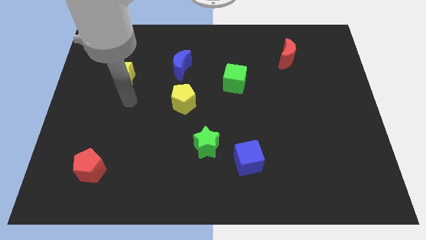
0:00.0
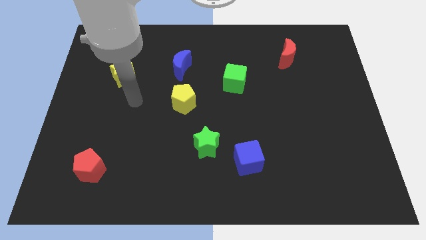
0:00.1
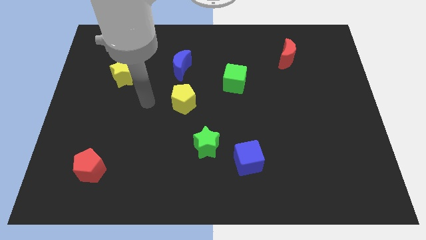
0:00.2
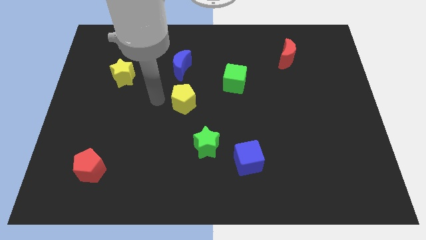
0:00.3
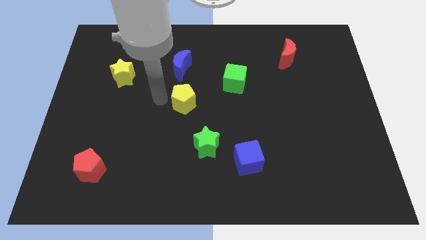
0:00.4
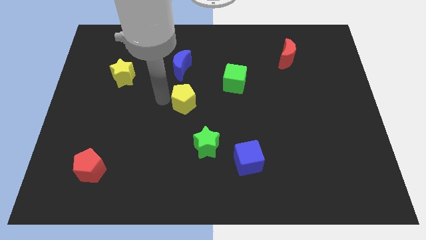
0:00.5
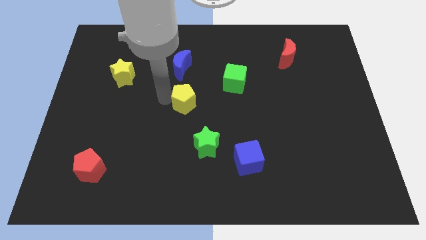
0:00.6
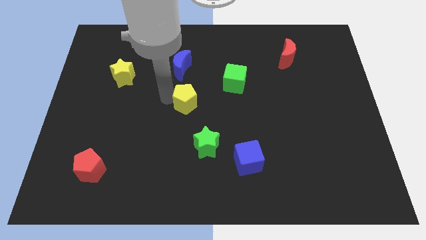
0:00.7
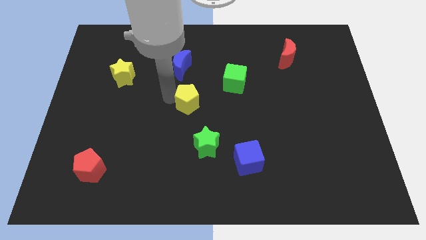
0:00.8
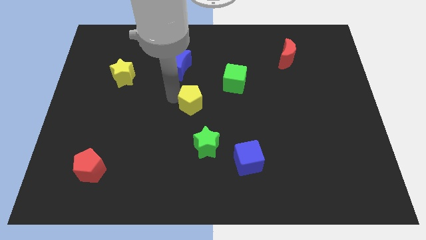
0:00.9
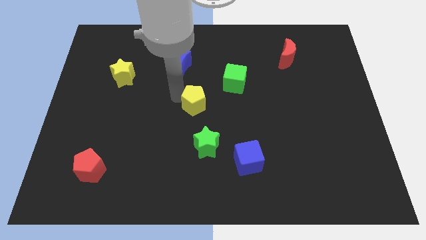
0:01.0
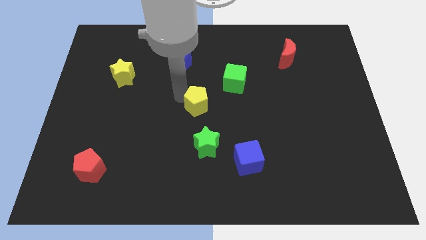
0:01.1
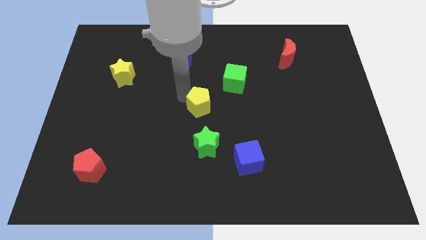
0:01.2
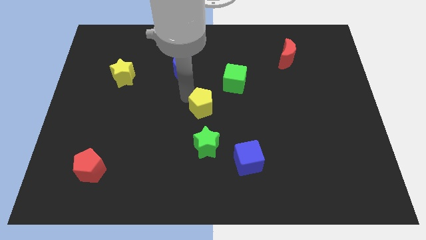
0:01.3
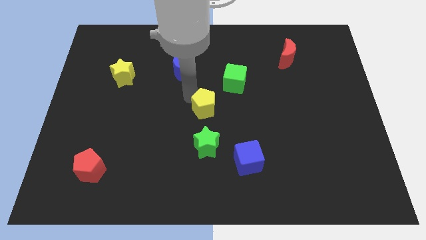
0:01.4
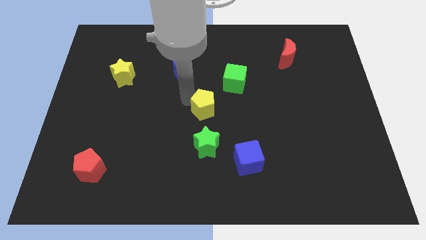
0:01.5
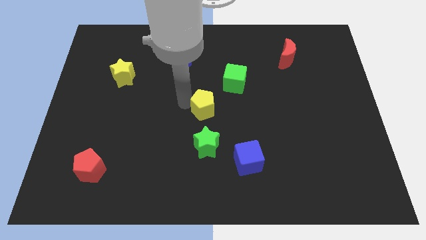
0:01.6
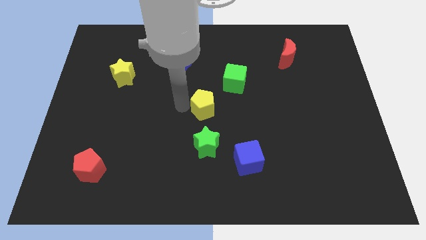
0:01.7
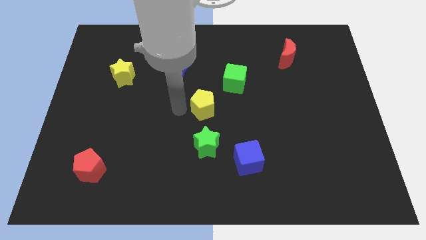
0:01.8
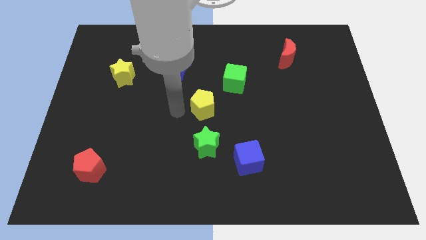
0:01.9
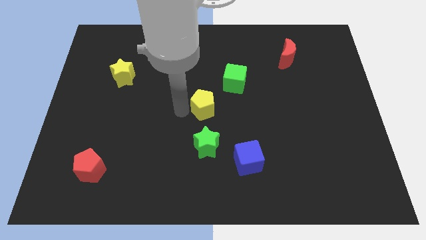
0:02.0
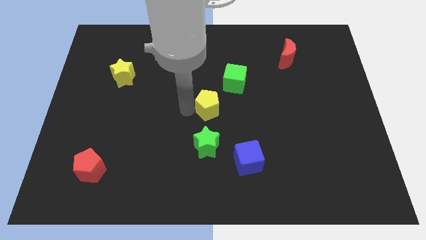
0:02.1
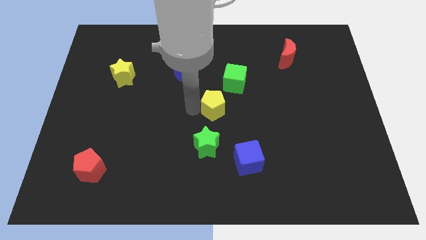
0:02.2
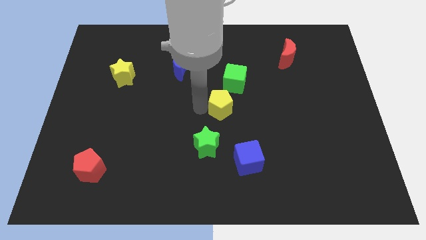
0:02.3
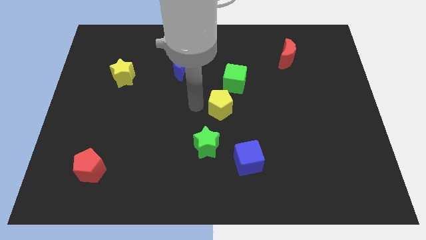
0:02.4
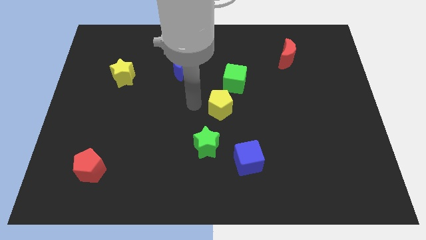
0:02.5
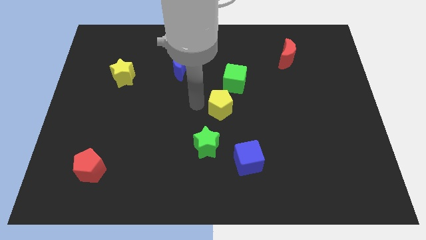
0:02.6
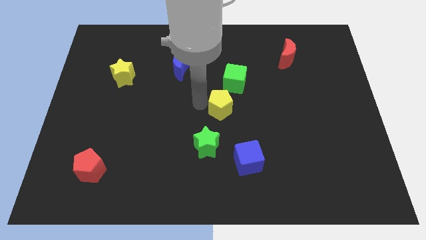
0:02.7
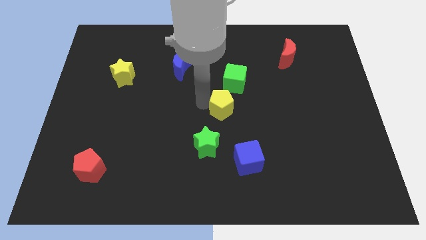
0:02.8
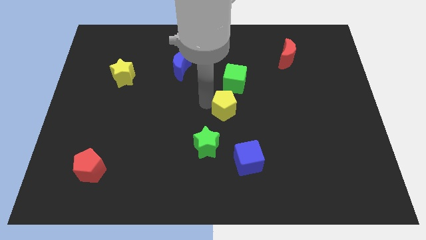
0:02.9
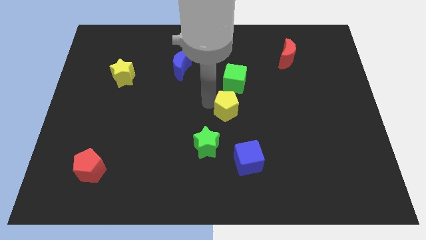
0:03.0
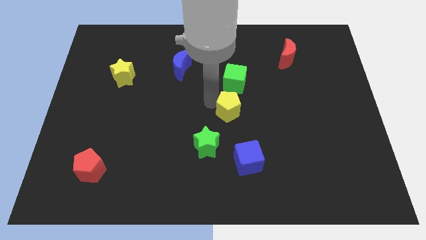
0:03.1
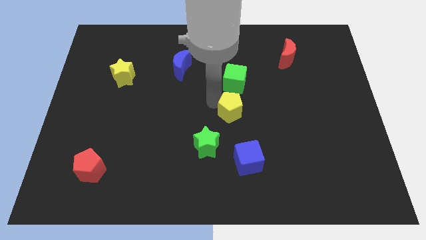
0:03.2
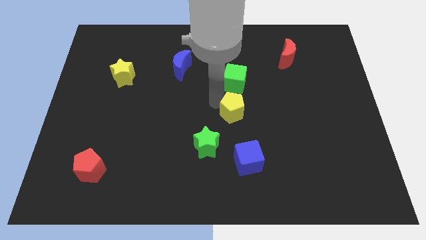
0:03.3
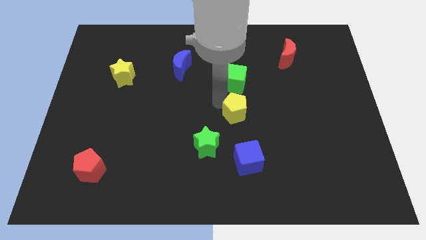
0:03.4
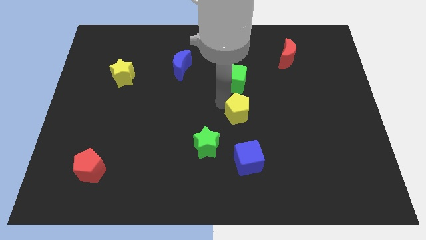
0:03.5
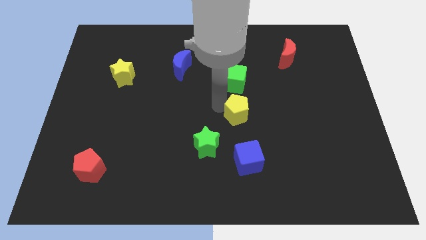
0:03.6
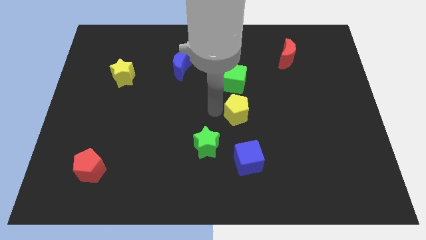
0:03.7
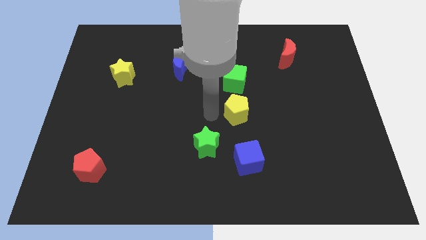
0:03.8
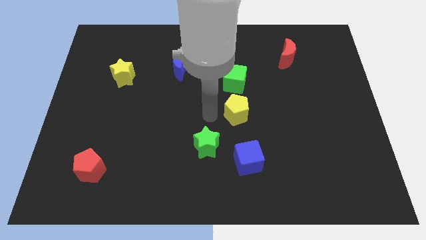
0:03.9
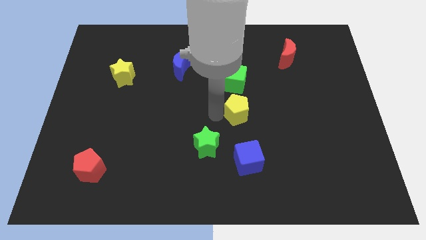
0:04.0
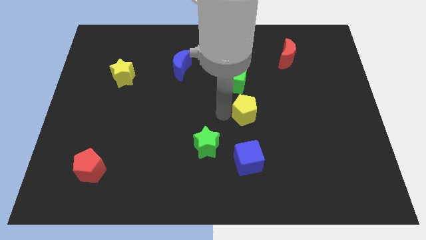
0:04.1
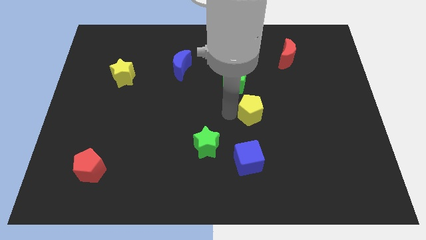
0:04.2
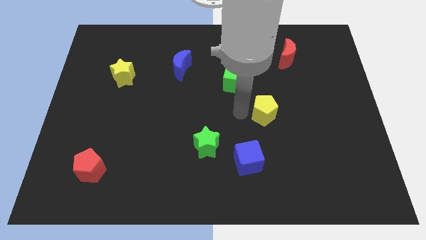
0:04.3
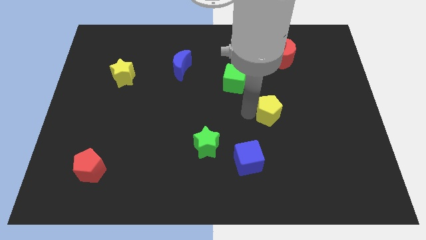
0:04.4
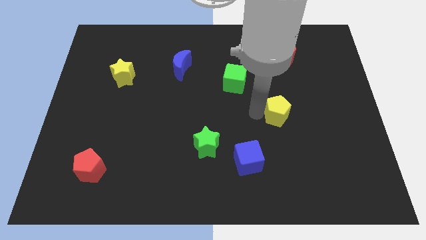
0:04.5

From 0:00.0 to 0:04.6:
push the yellow pentagon right

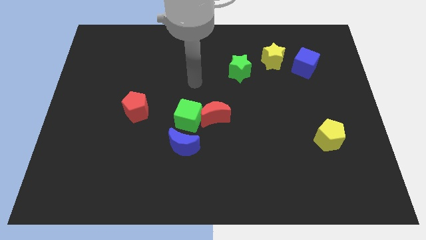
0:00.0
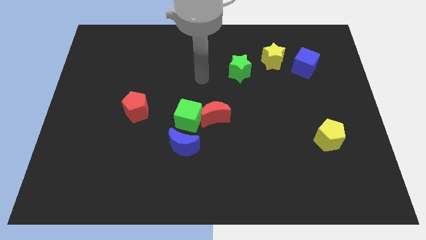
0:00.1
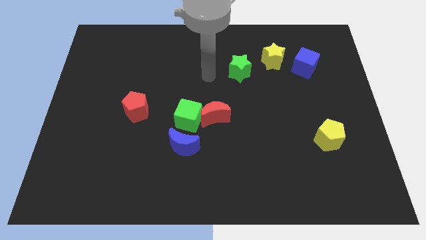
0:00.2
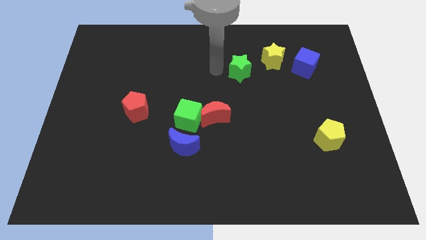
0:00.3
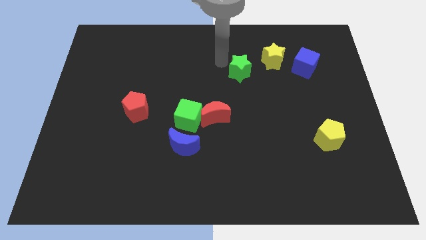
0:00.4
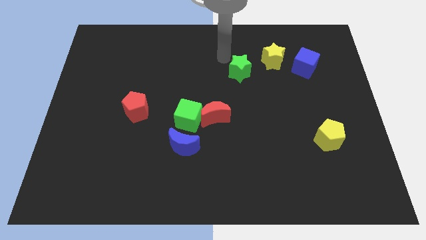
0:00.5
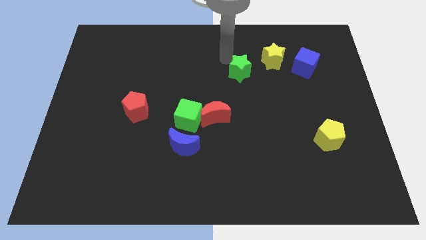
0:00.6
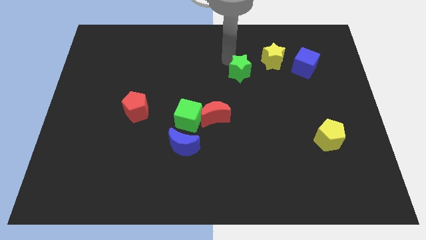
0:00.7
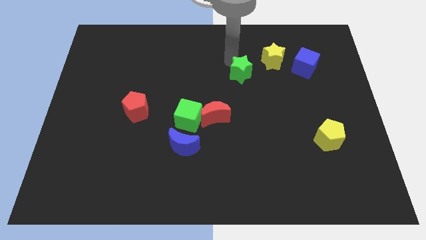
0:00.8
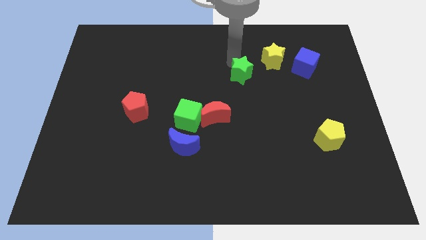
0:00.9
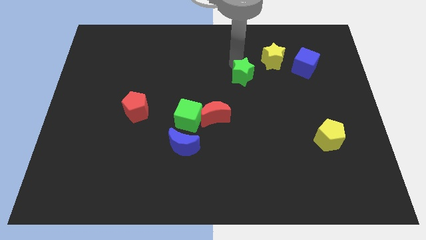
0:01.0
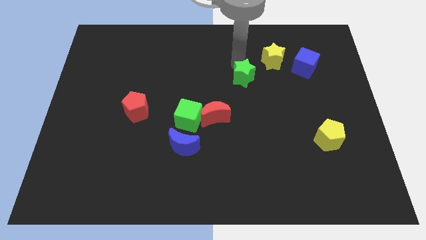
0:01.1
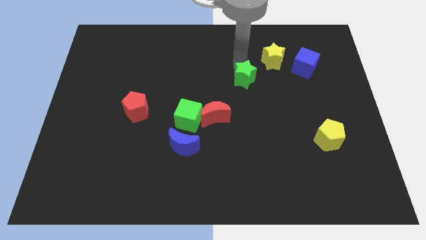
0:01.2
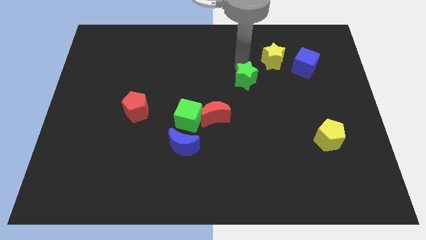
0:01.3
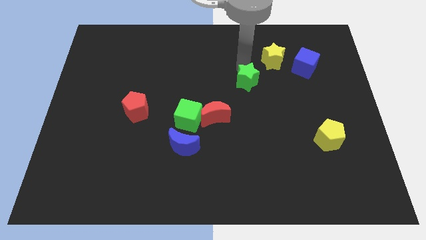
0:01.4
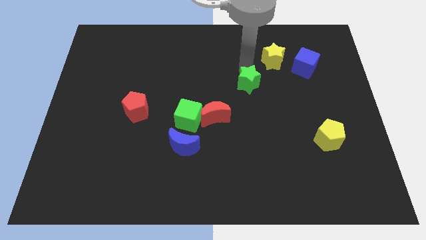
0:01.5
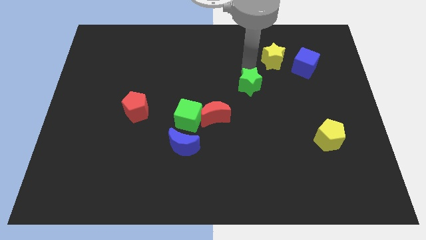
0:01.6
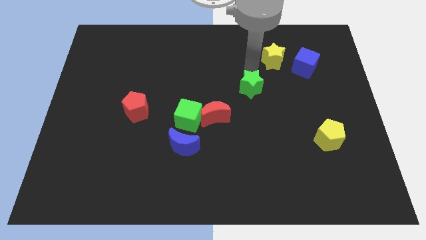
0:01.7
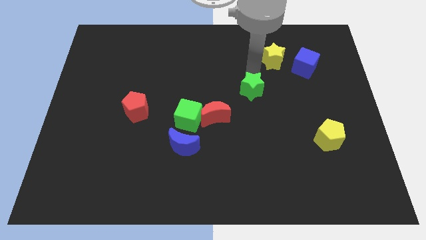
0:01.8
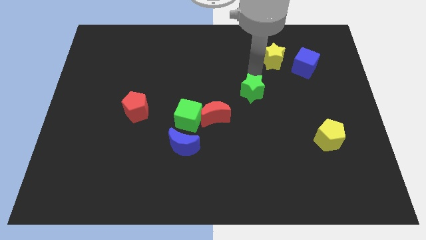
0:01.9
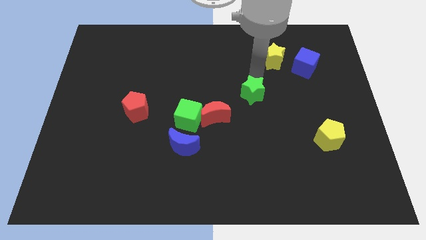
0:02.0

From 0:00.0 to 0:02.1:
move the green star a bit down and to the right

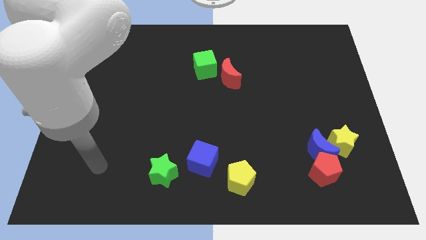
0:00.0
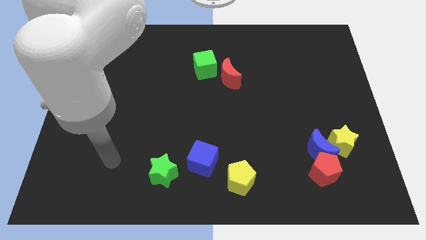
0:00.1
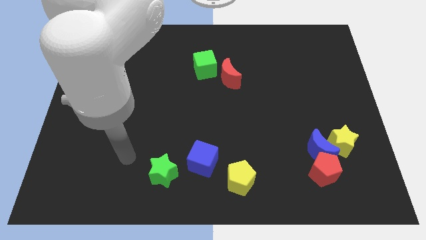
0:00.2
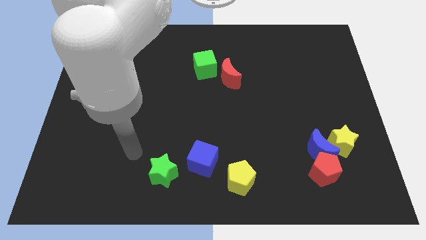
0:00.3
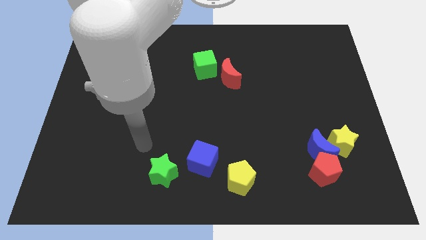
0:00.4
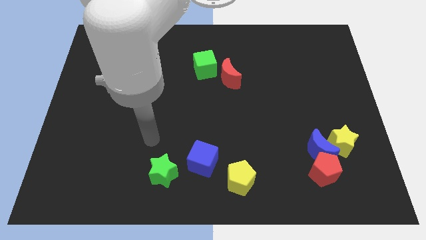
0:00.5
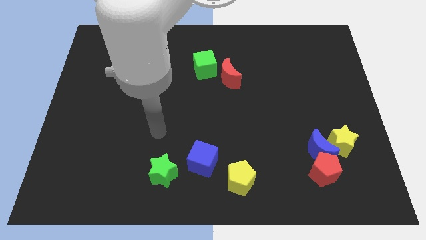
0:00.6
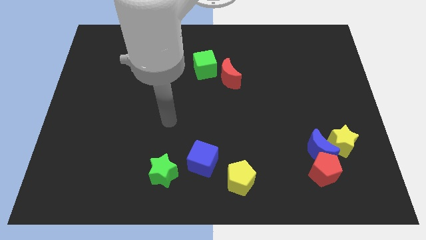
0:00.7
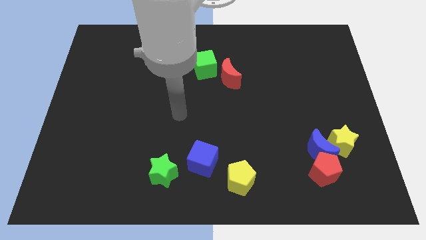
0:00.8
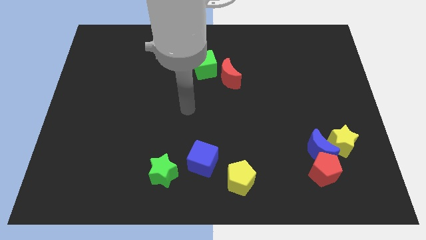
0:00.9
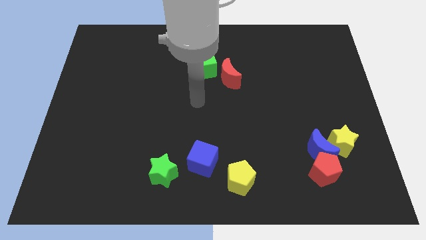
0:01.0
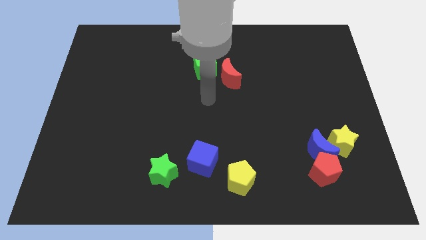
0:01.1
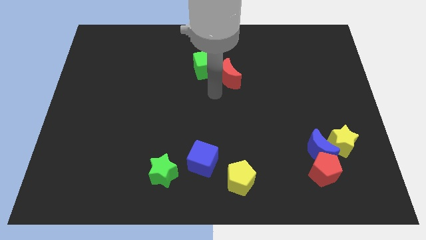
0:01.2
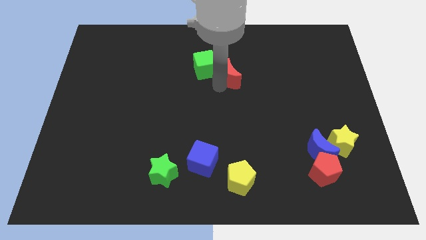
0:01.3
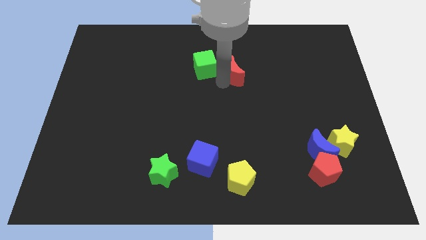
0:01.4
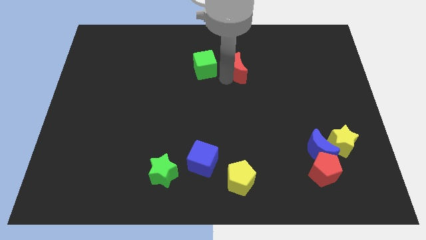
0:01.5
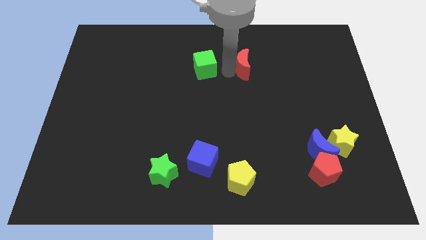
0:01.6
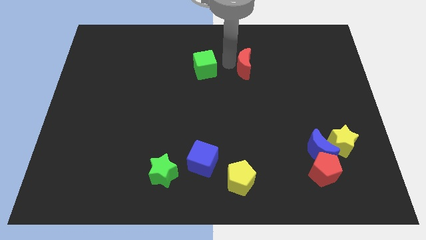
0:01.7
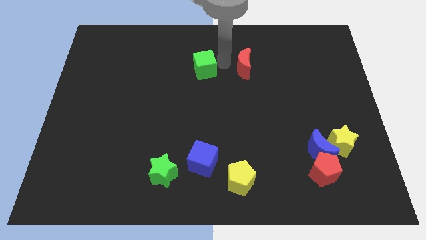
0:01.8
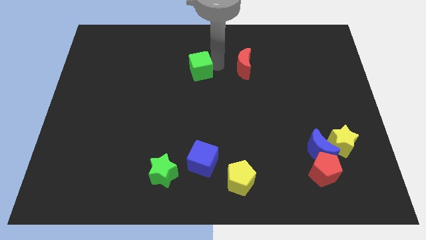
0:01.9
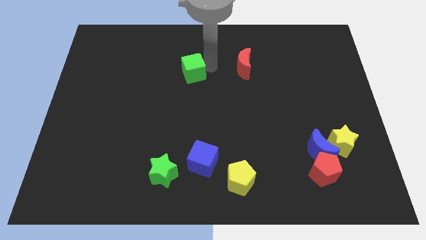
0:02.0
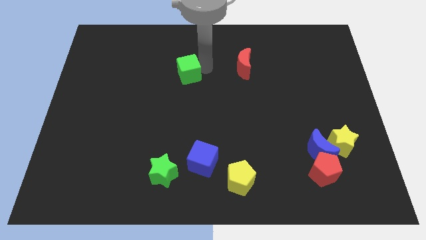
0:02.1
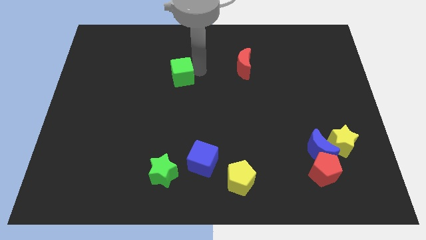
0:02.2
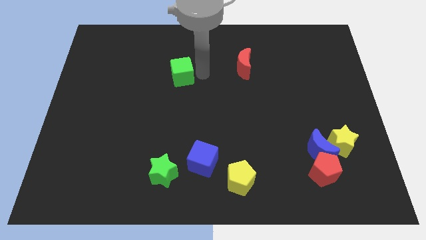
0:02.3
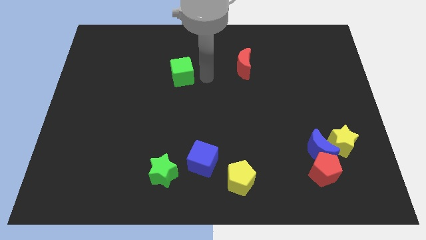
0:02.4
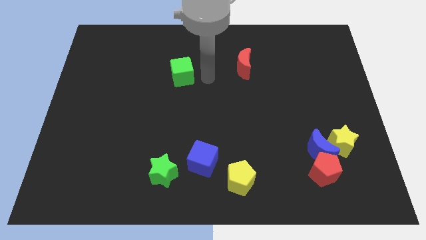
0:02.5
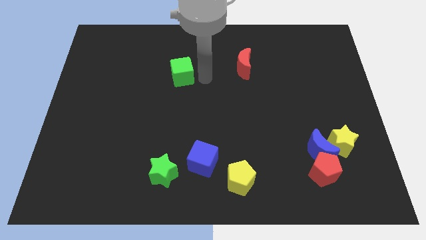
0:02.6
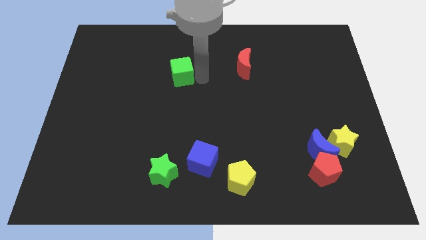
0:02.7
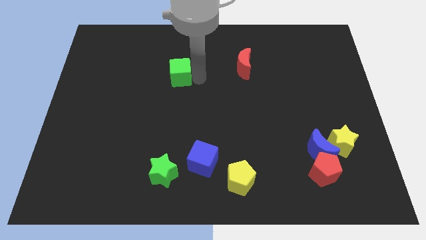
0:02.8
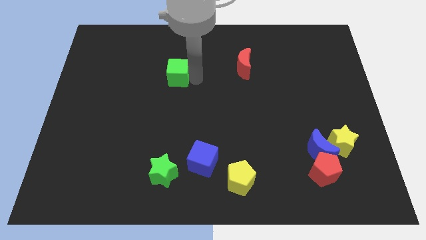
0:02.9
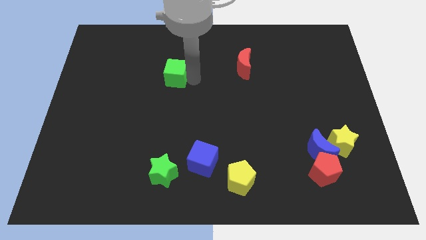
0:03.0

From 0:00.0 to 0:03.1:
slightly push the green cube to the left
